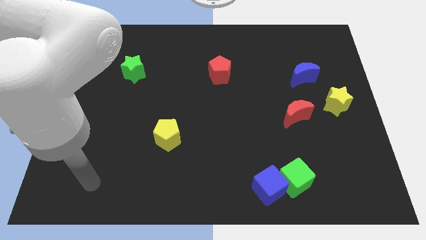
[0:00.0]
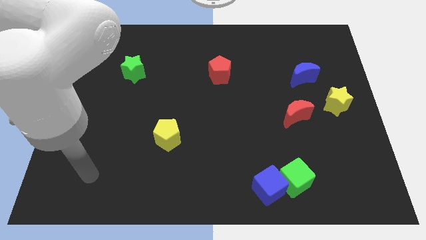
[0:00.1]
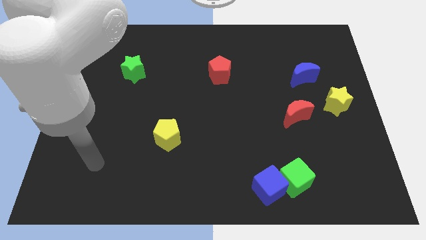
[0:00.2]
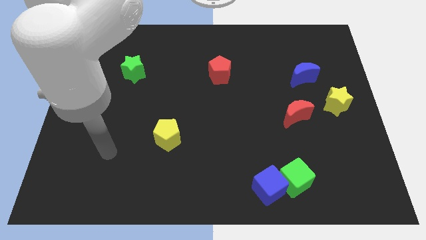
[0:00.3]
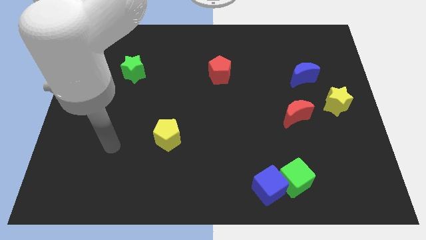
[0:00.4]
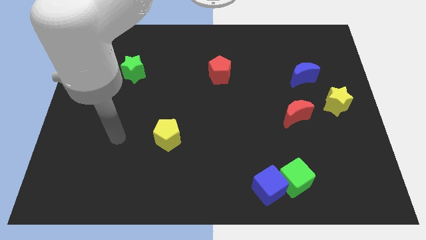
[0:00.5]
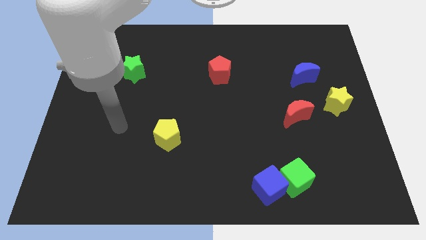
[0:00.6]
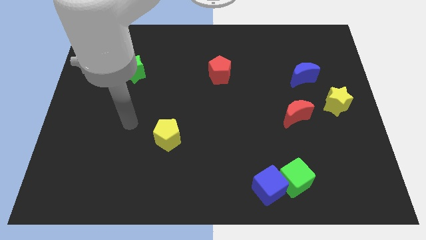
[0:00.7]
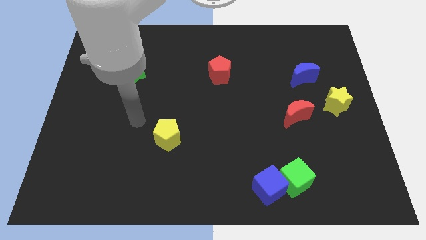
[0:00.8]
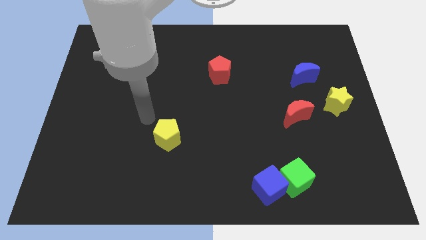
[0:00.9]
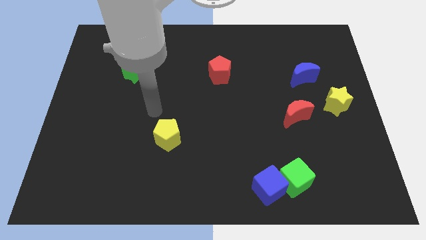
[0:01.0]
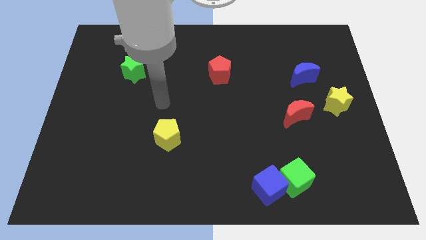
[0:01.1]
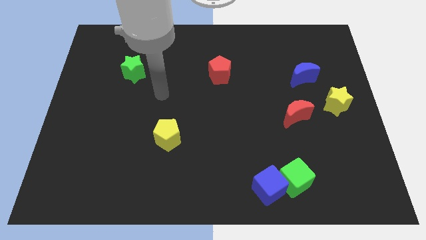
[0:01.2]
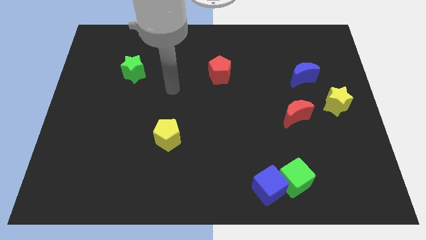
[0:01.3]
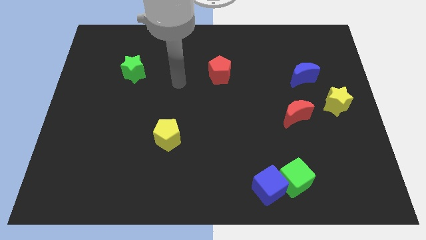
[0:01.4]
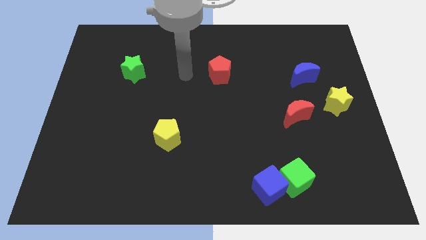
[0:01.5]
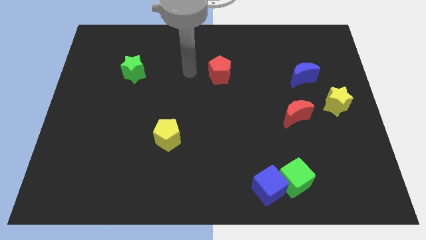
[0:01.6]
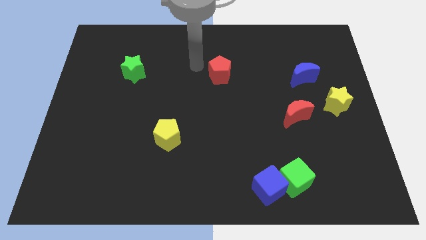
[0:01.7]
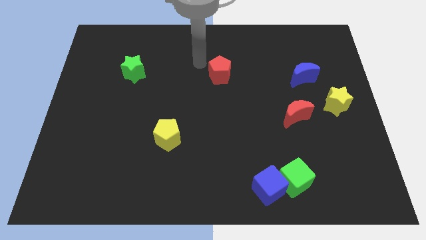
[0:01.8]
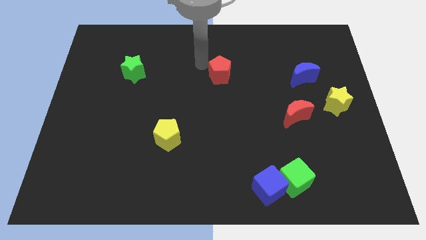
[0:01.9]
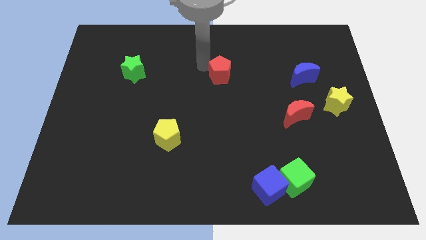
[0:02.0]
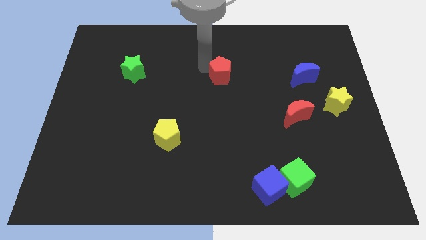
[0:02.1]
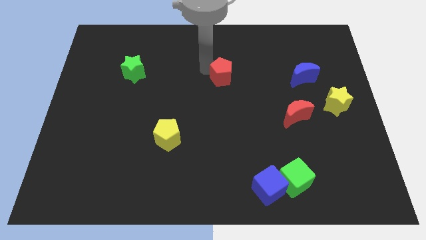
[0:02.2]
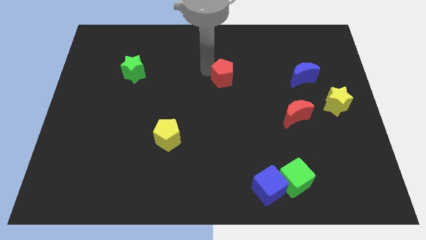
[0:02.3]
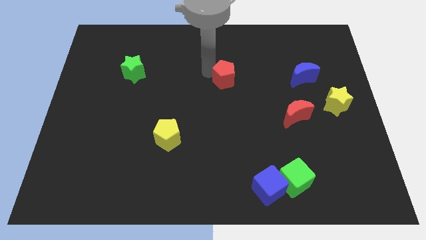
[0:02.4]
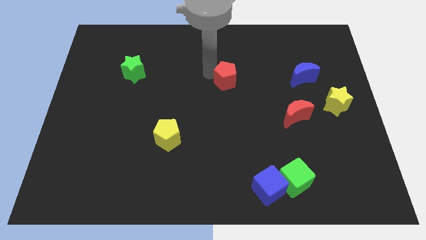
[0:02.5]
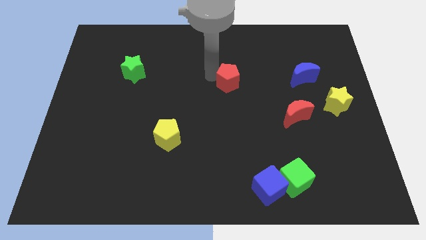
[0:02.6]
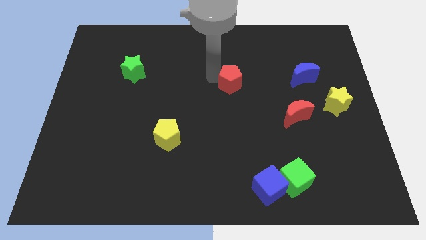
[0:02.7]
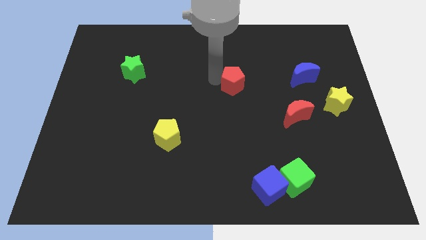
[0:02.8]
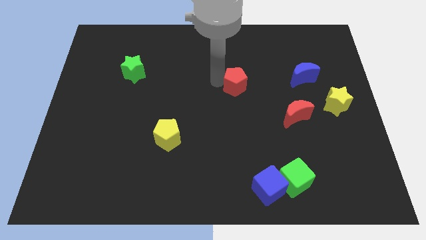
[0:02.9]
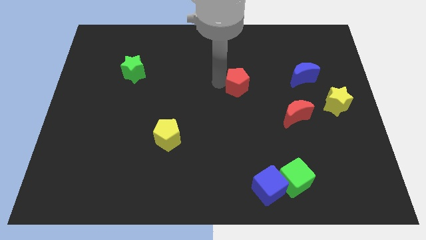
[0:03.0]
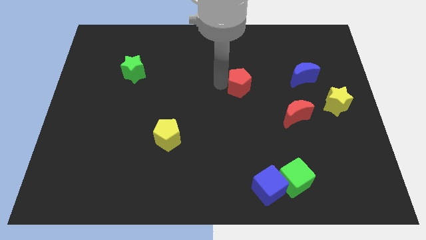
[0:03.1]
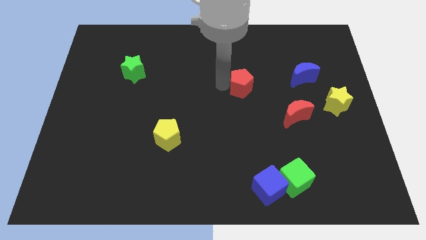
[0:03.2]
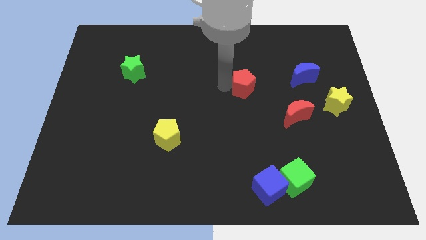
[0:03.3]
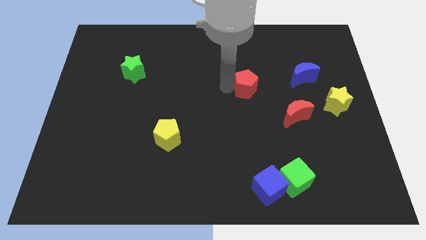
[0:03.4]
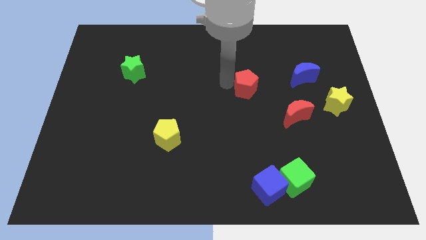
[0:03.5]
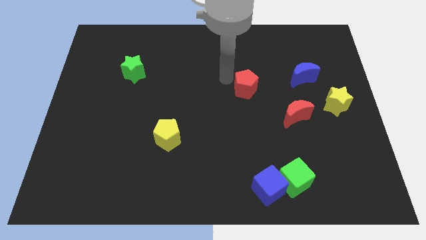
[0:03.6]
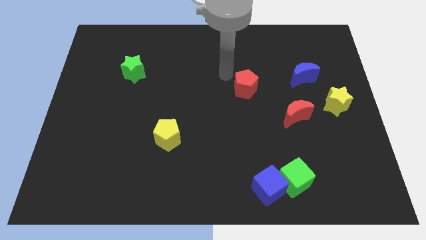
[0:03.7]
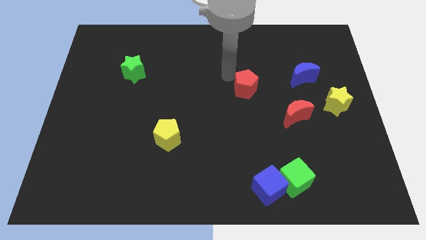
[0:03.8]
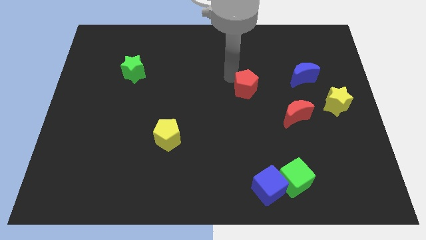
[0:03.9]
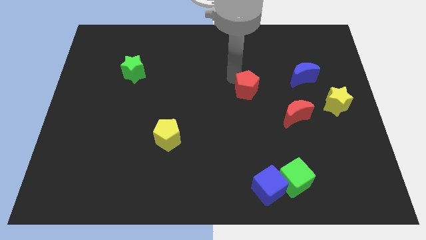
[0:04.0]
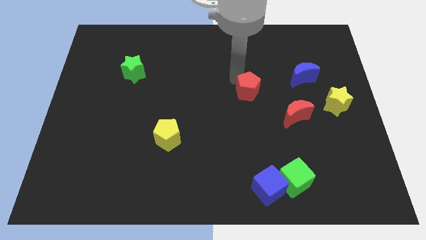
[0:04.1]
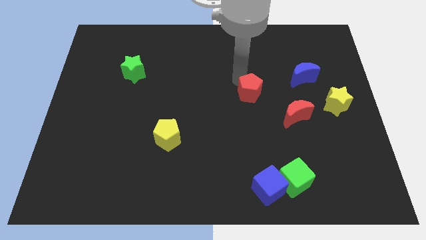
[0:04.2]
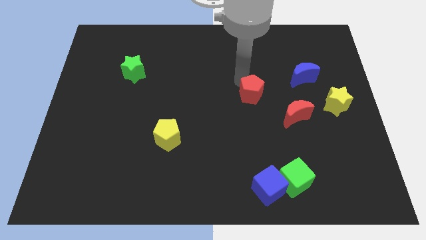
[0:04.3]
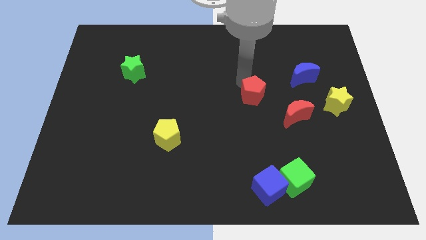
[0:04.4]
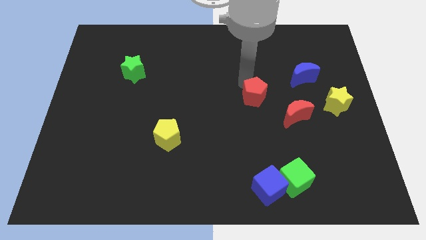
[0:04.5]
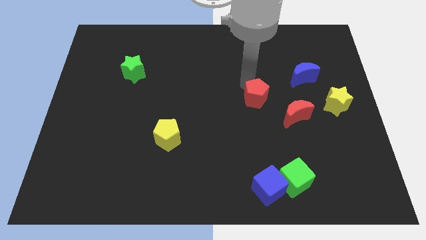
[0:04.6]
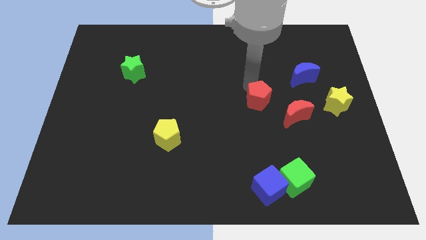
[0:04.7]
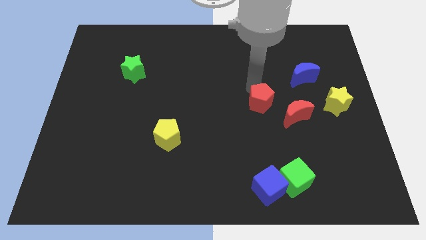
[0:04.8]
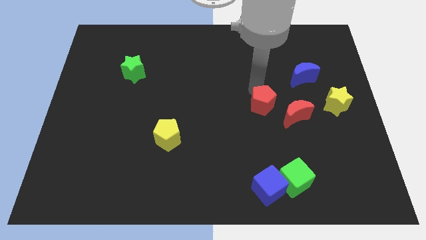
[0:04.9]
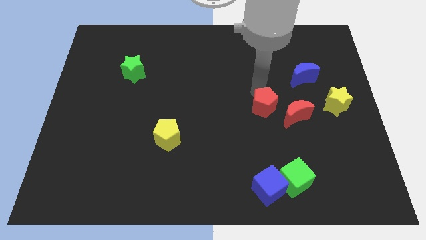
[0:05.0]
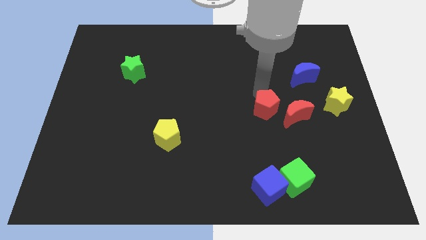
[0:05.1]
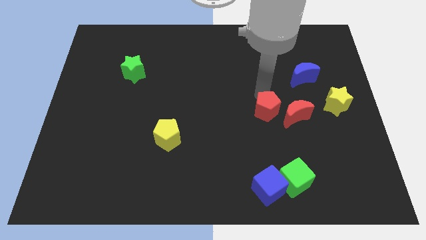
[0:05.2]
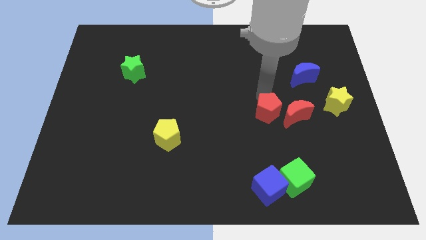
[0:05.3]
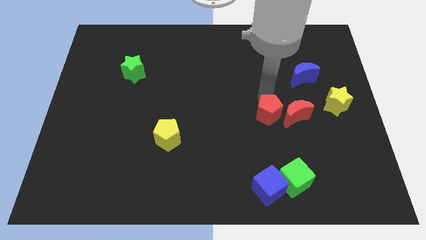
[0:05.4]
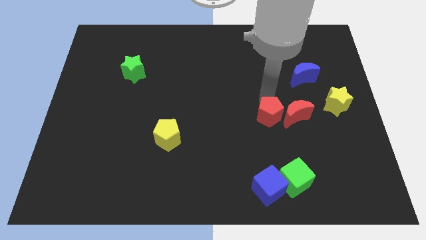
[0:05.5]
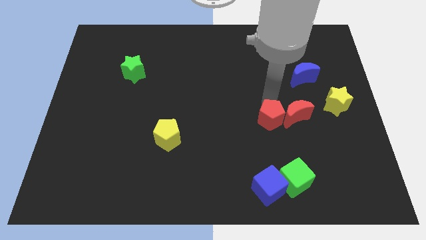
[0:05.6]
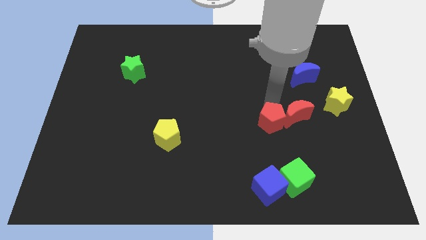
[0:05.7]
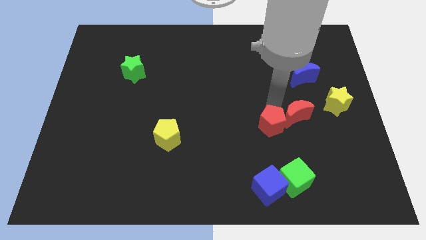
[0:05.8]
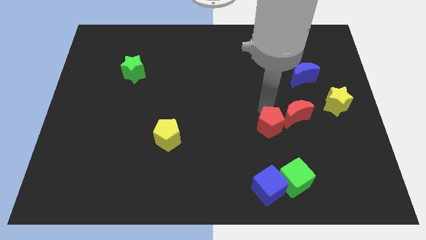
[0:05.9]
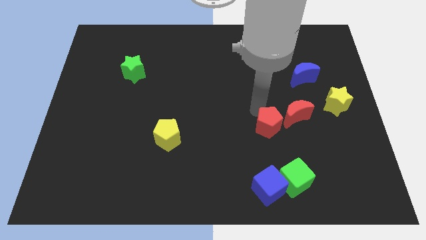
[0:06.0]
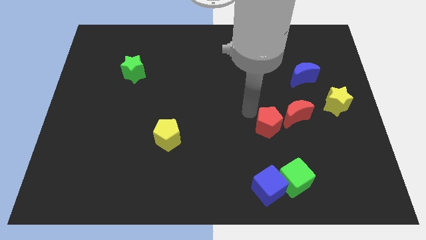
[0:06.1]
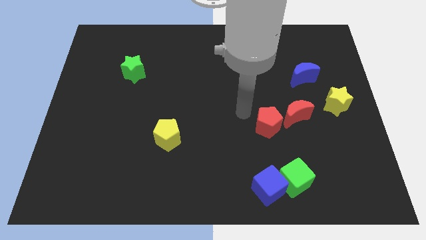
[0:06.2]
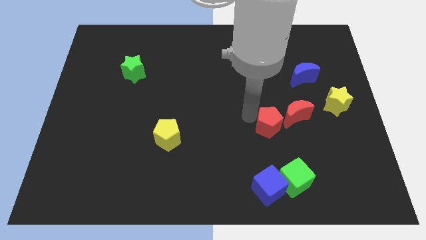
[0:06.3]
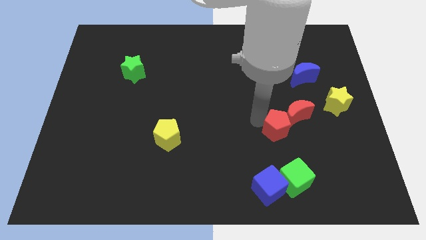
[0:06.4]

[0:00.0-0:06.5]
push the red pentagon down and to the right diagonally

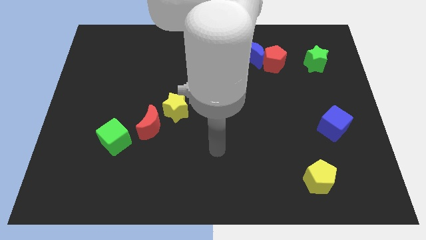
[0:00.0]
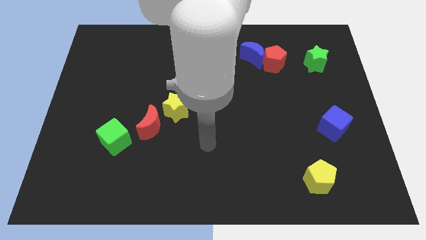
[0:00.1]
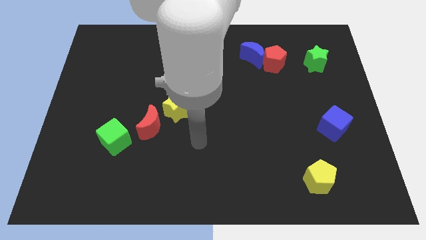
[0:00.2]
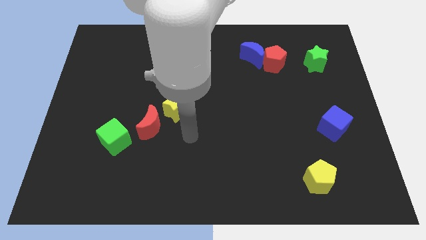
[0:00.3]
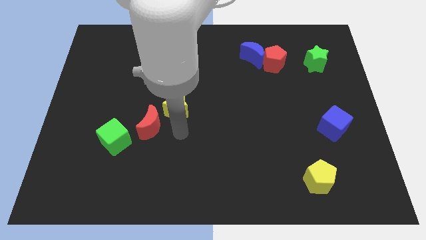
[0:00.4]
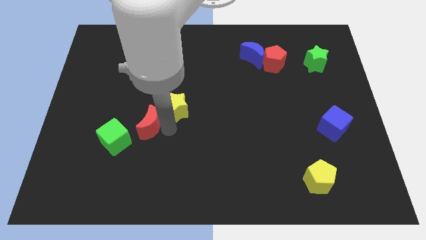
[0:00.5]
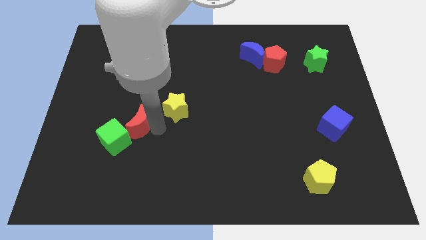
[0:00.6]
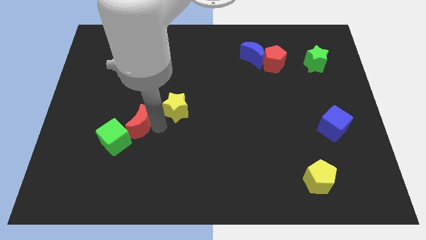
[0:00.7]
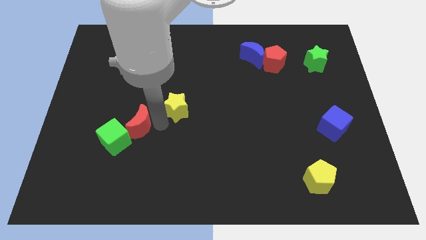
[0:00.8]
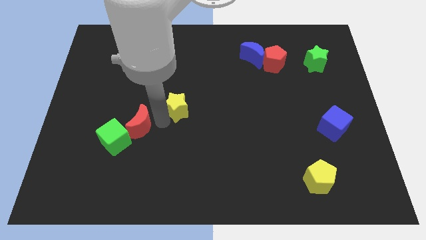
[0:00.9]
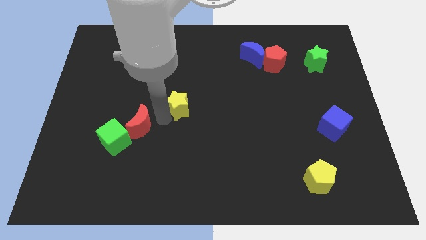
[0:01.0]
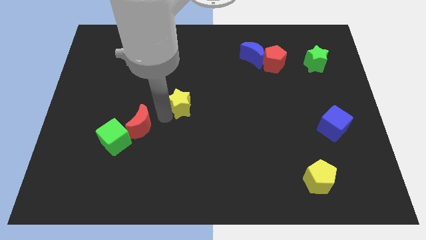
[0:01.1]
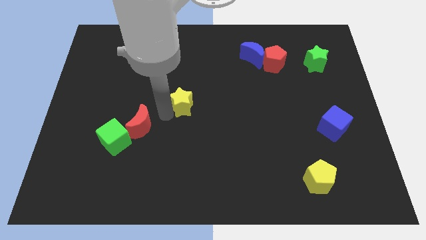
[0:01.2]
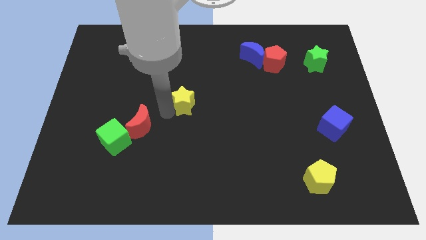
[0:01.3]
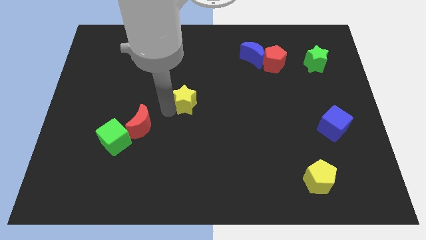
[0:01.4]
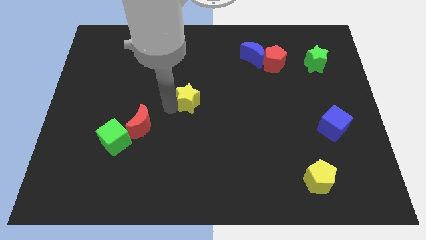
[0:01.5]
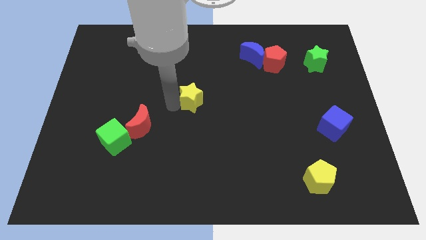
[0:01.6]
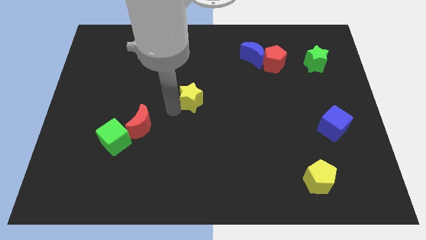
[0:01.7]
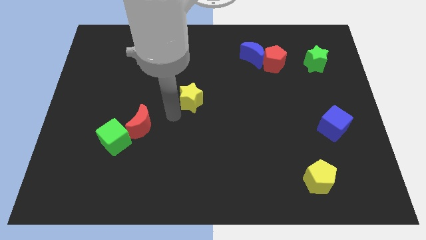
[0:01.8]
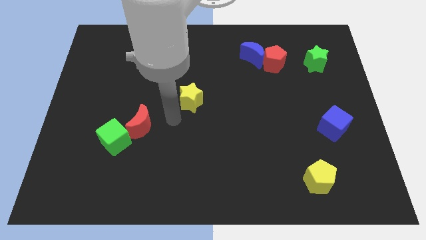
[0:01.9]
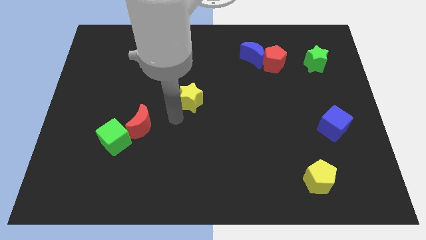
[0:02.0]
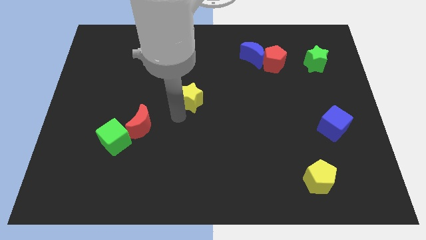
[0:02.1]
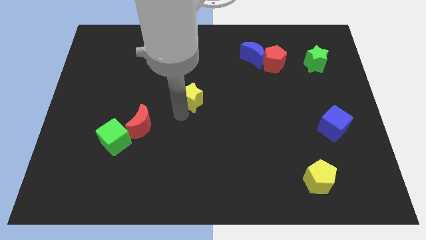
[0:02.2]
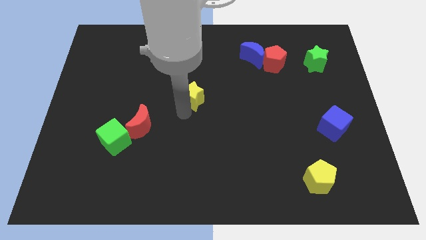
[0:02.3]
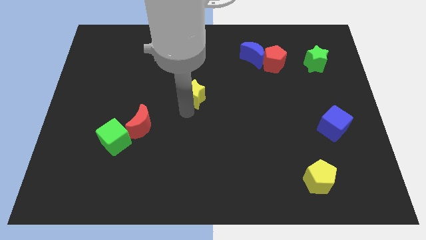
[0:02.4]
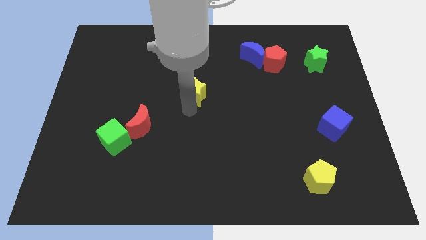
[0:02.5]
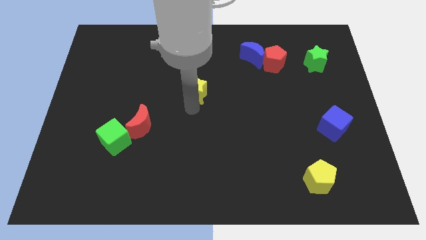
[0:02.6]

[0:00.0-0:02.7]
move the yellow star up and then to the right slightly
